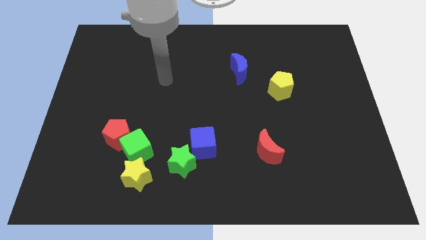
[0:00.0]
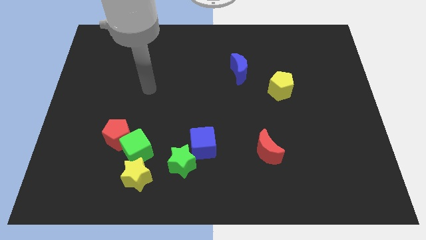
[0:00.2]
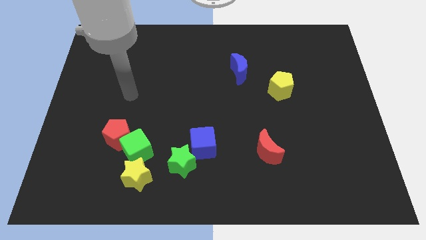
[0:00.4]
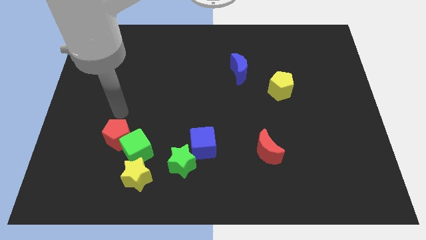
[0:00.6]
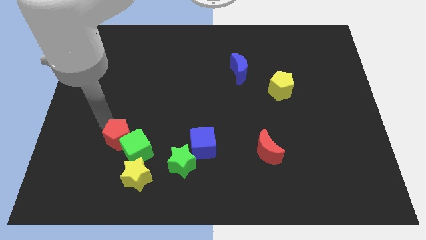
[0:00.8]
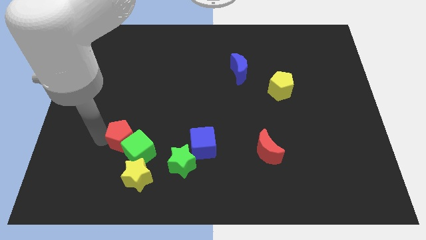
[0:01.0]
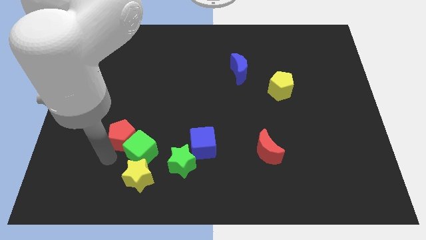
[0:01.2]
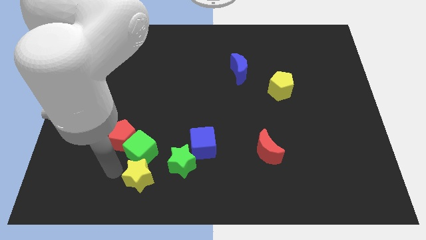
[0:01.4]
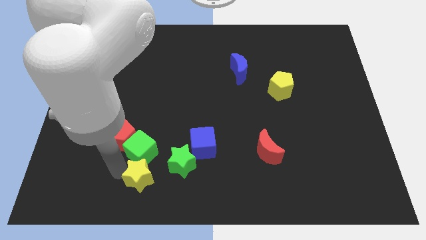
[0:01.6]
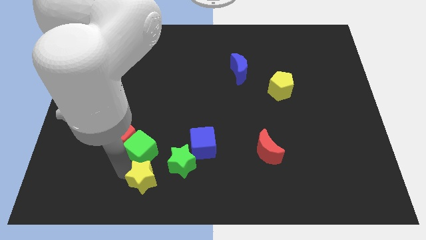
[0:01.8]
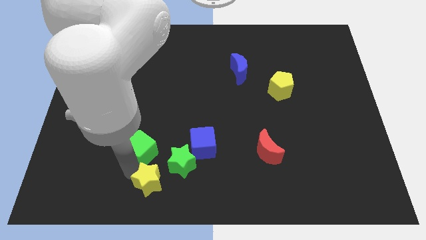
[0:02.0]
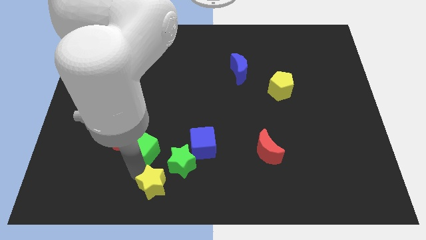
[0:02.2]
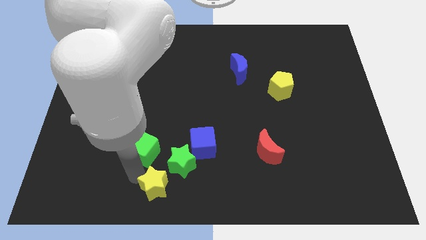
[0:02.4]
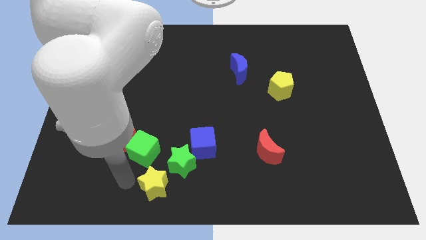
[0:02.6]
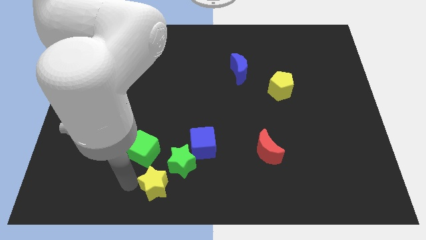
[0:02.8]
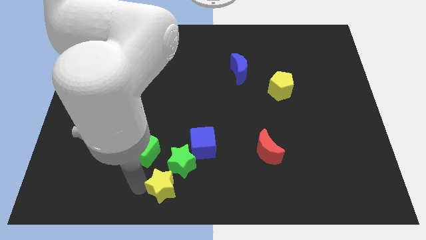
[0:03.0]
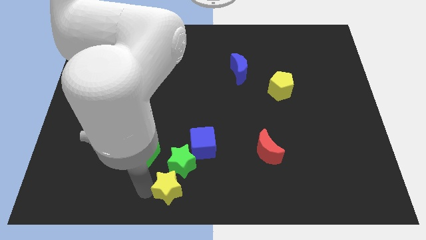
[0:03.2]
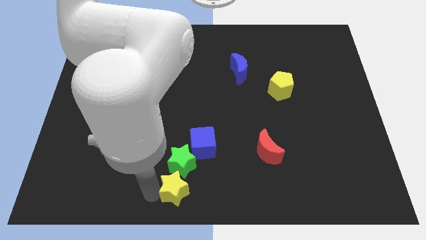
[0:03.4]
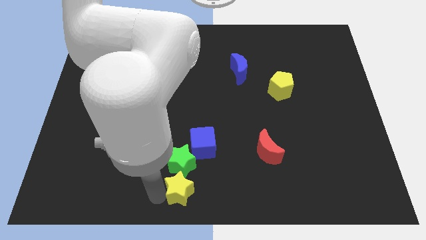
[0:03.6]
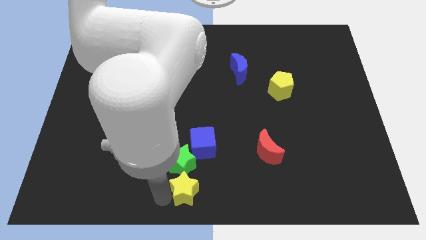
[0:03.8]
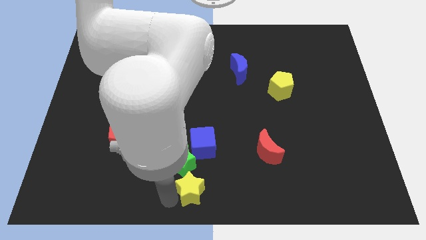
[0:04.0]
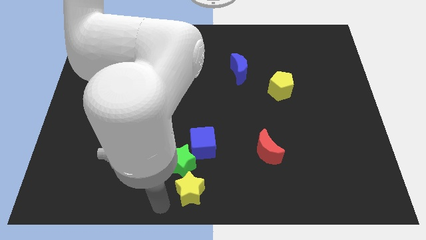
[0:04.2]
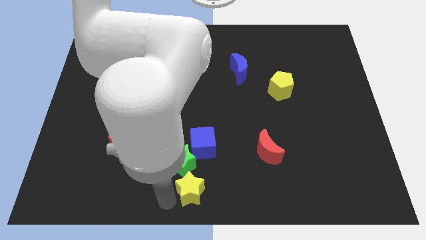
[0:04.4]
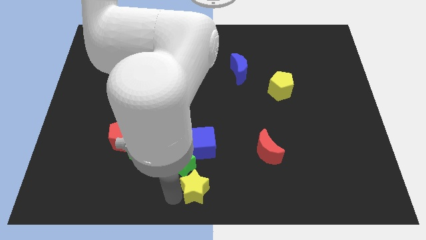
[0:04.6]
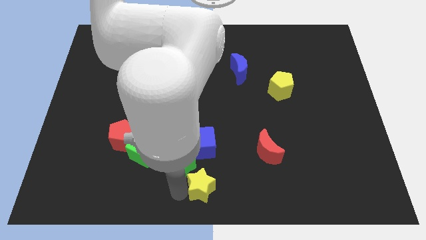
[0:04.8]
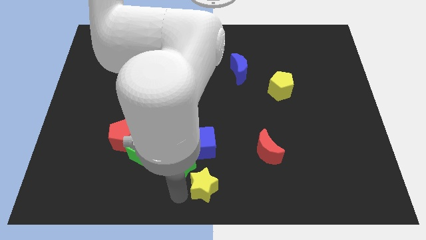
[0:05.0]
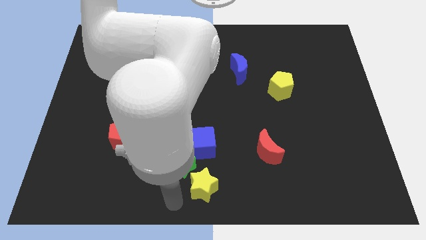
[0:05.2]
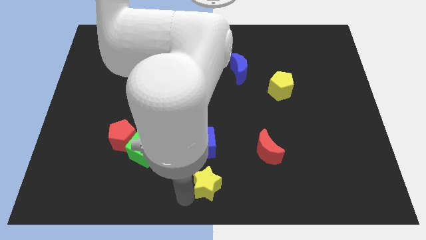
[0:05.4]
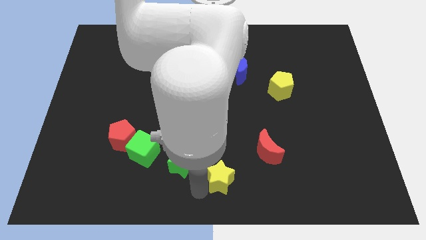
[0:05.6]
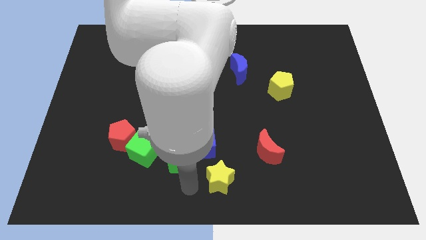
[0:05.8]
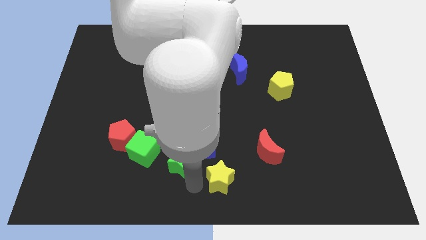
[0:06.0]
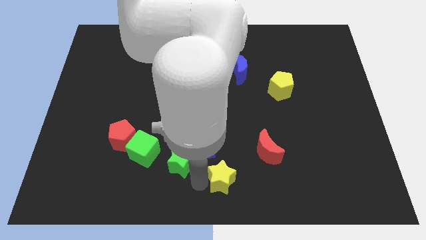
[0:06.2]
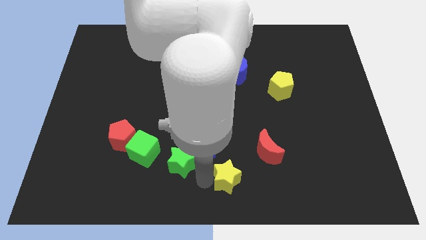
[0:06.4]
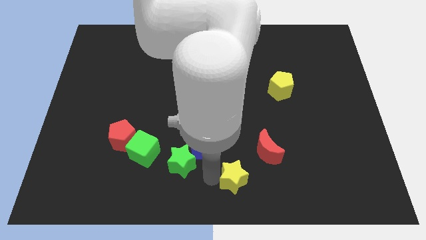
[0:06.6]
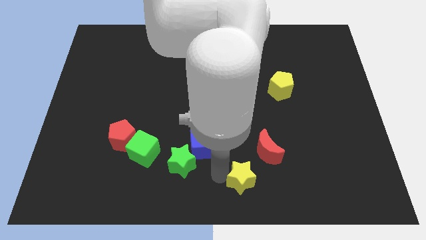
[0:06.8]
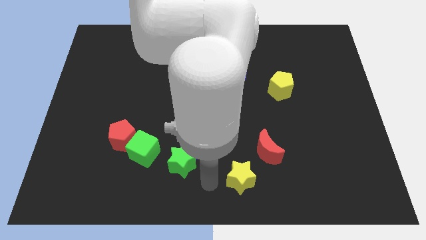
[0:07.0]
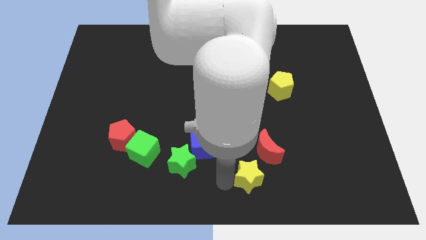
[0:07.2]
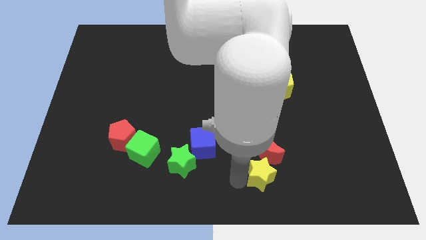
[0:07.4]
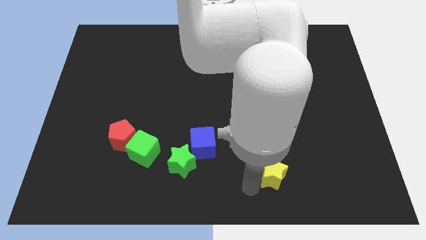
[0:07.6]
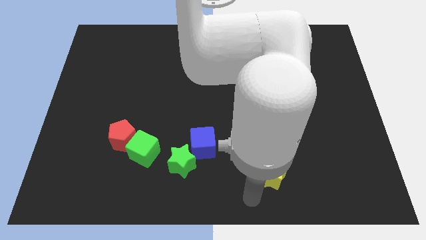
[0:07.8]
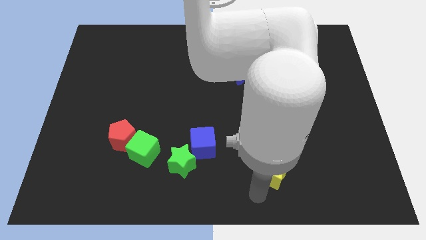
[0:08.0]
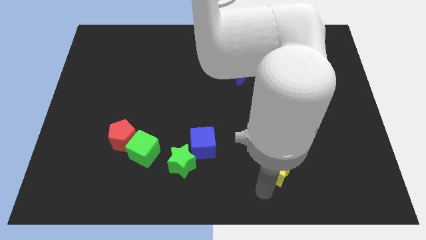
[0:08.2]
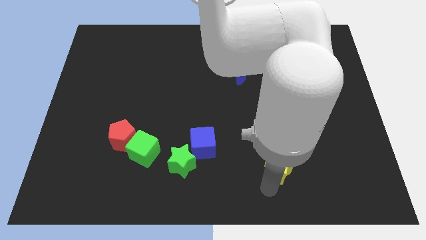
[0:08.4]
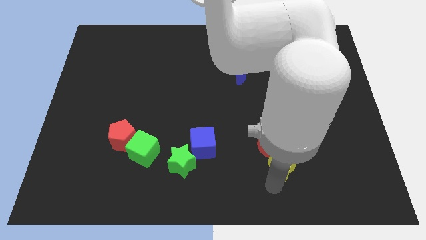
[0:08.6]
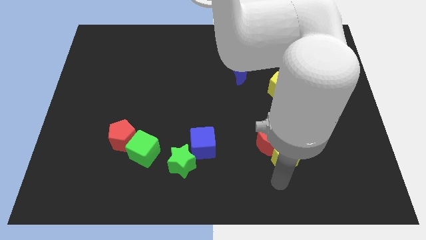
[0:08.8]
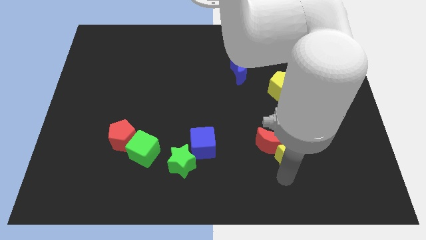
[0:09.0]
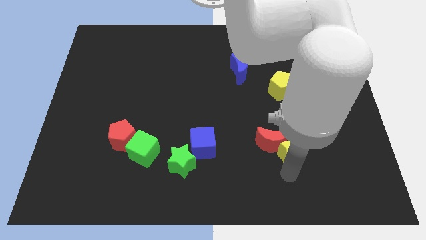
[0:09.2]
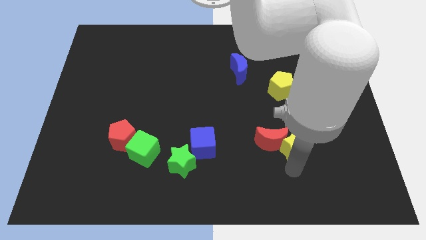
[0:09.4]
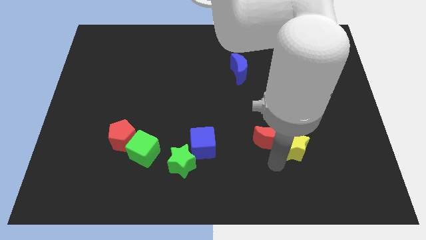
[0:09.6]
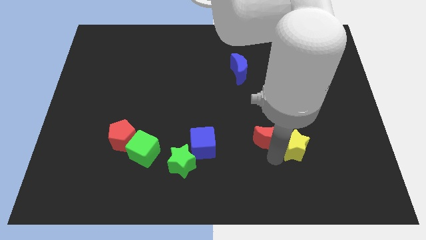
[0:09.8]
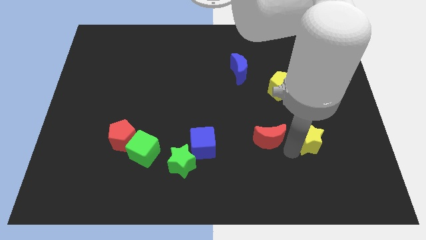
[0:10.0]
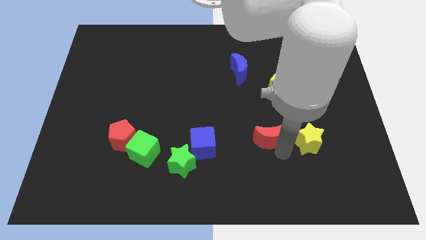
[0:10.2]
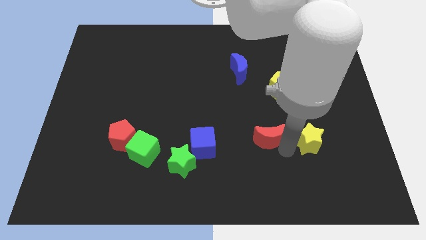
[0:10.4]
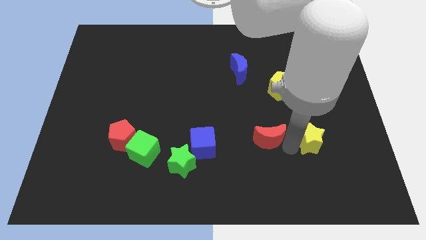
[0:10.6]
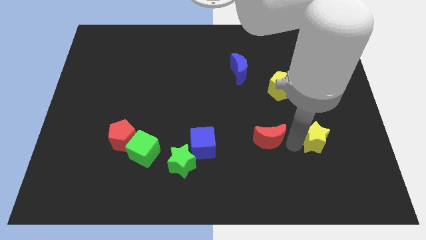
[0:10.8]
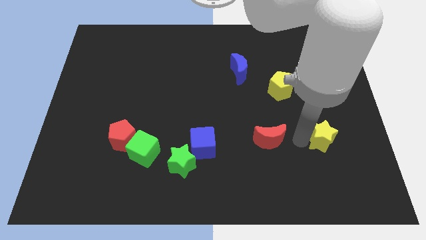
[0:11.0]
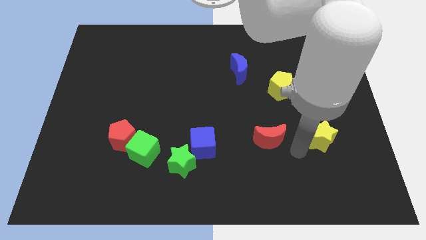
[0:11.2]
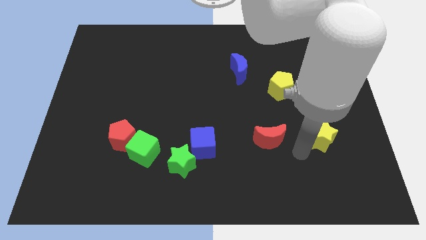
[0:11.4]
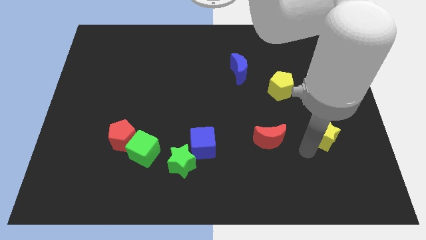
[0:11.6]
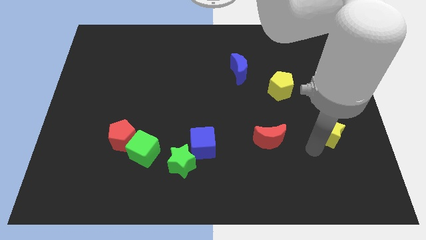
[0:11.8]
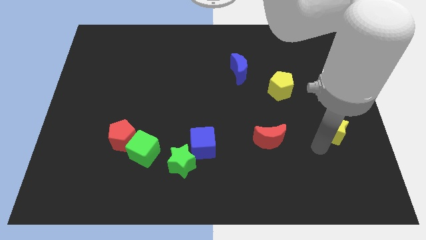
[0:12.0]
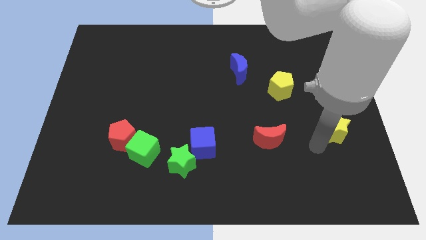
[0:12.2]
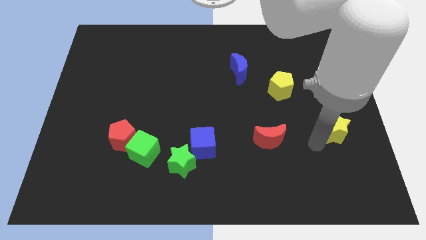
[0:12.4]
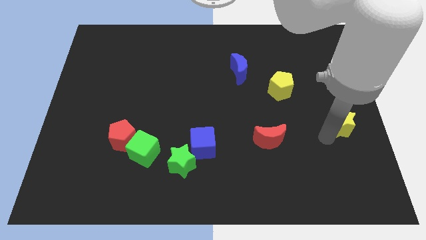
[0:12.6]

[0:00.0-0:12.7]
put the yellow star to the right side
